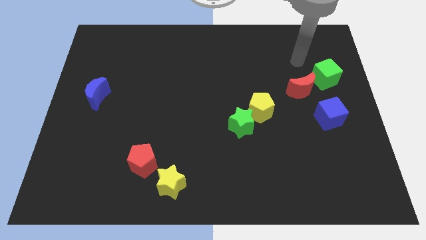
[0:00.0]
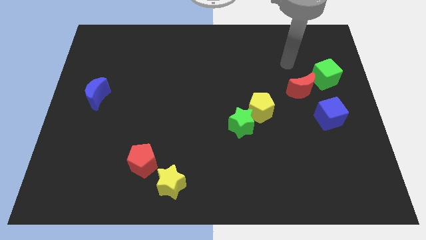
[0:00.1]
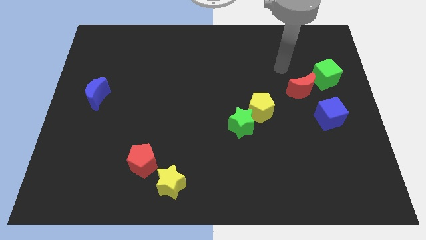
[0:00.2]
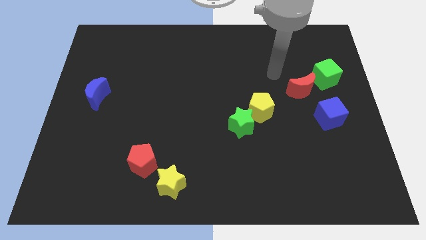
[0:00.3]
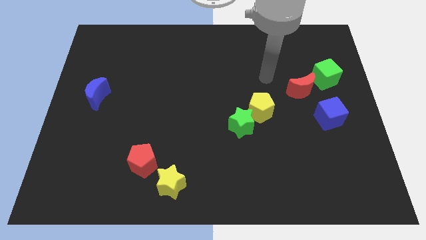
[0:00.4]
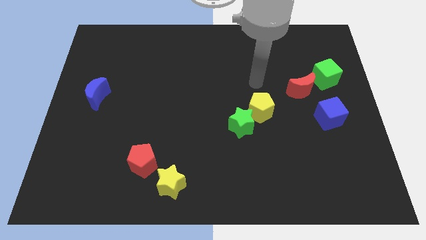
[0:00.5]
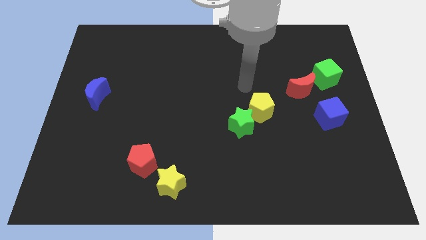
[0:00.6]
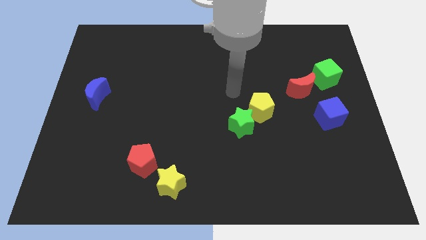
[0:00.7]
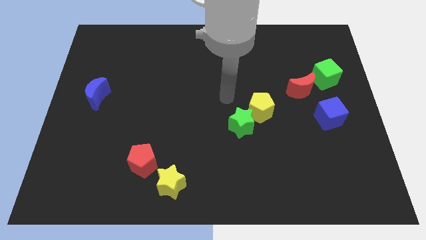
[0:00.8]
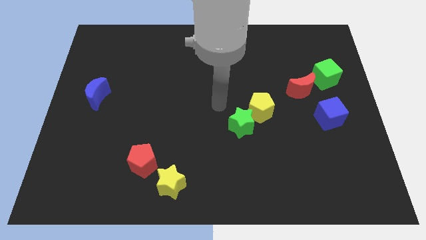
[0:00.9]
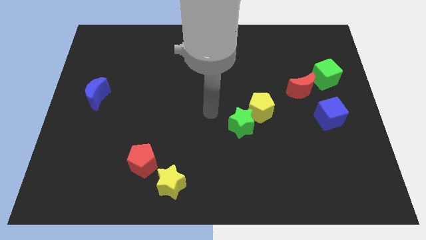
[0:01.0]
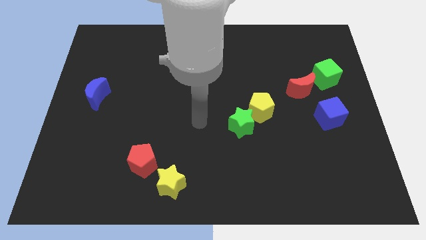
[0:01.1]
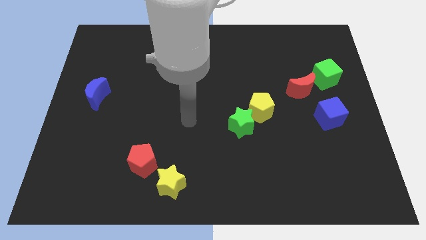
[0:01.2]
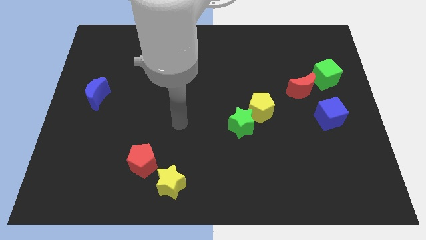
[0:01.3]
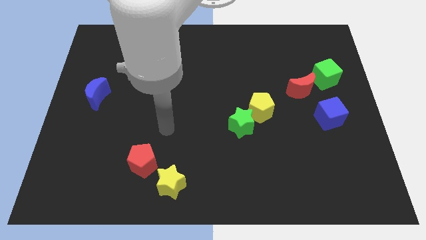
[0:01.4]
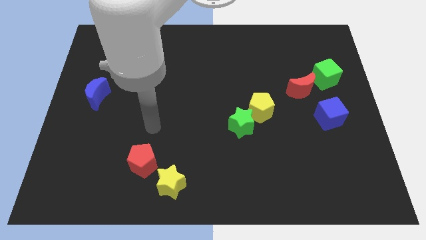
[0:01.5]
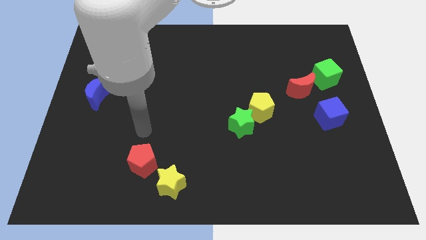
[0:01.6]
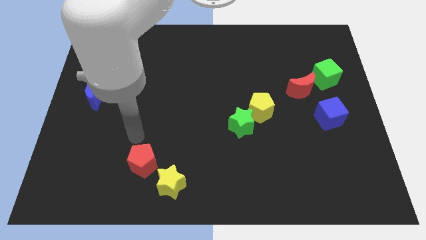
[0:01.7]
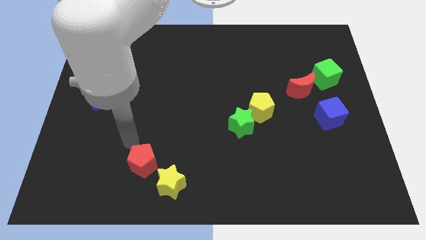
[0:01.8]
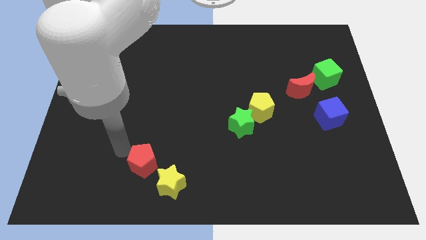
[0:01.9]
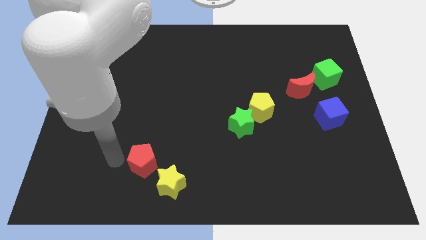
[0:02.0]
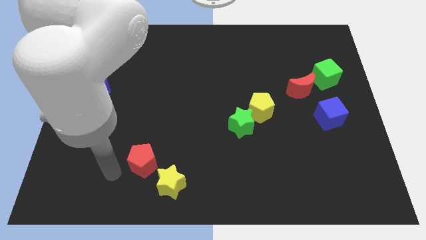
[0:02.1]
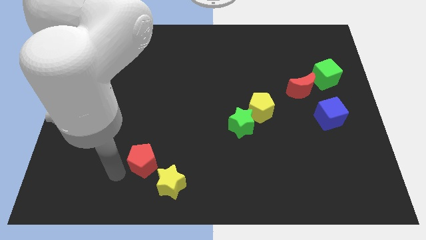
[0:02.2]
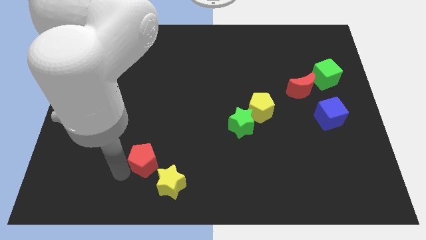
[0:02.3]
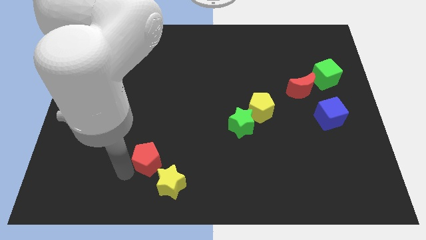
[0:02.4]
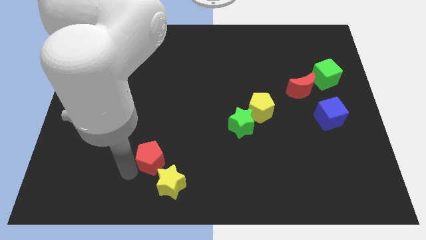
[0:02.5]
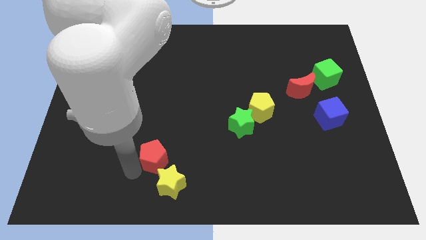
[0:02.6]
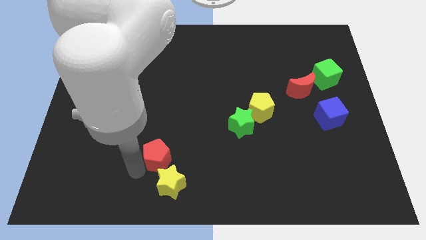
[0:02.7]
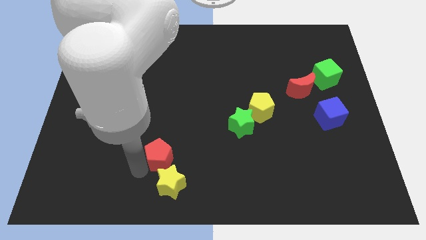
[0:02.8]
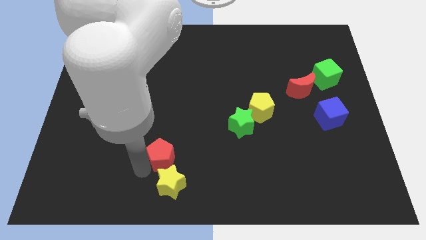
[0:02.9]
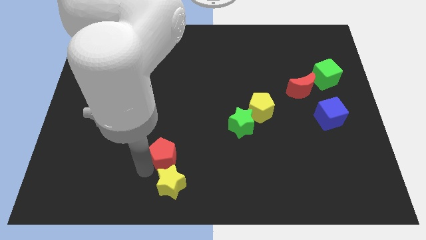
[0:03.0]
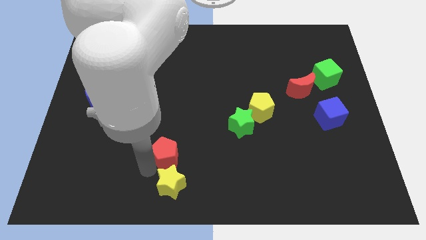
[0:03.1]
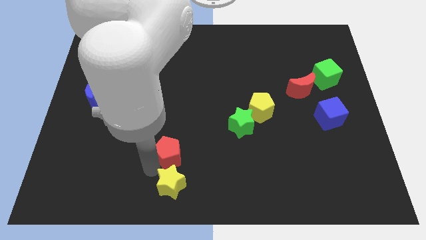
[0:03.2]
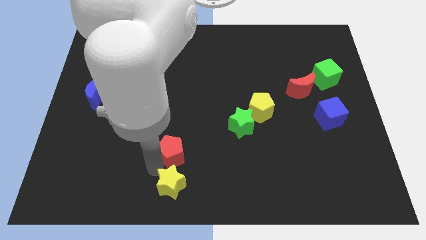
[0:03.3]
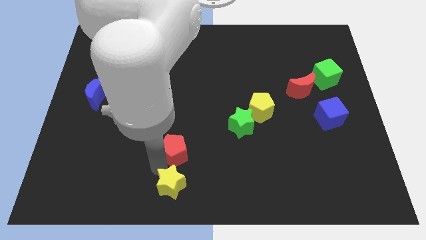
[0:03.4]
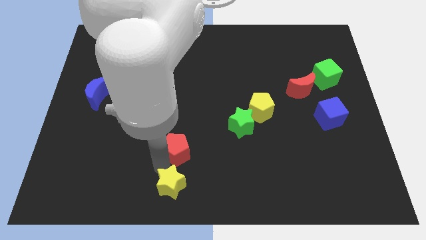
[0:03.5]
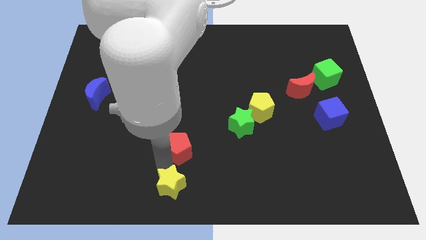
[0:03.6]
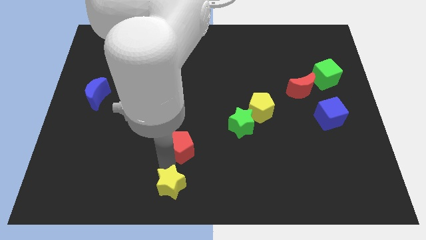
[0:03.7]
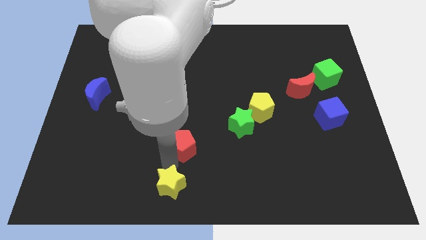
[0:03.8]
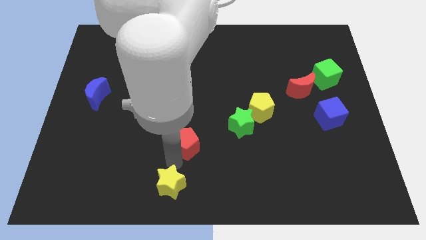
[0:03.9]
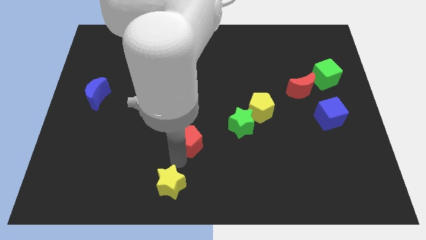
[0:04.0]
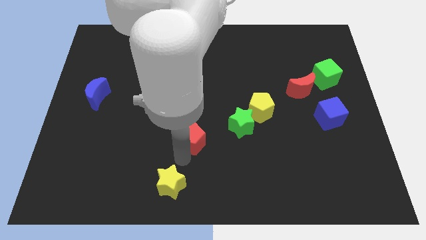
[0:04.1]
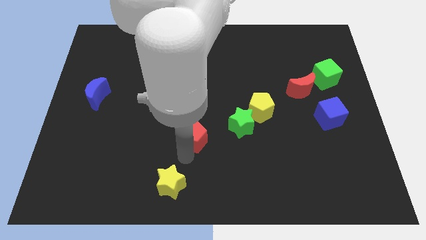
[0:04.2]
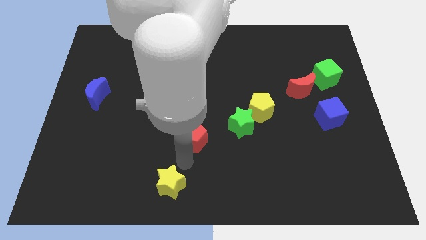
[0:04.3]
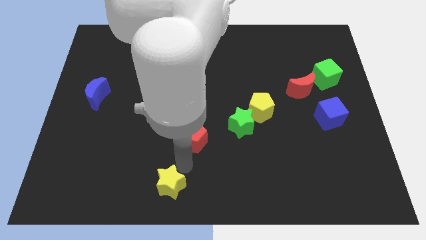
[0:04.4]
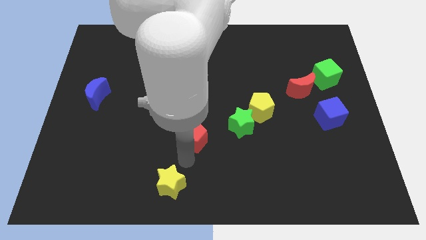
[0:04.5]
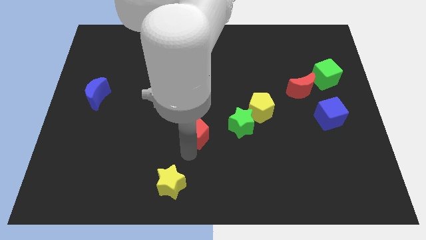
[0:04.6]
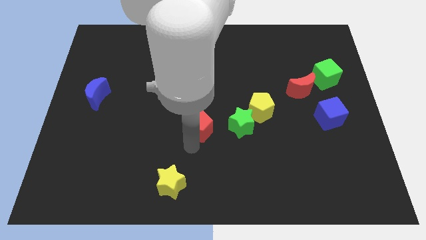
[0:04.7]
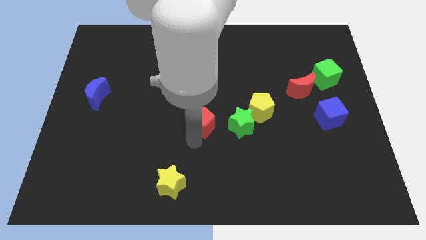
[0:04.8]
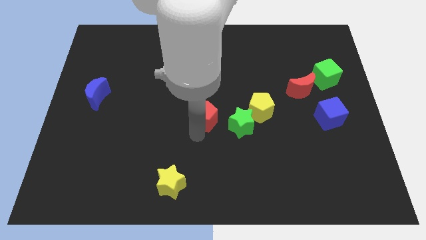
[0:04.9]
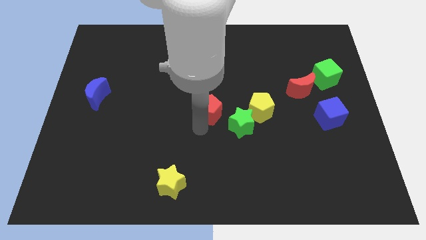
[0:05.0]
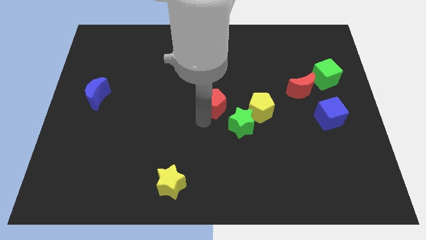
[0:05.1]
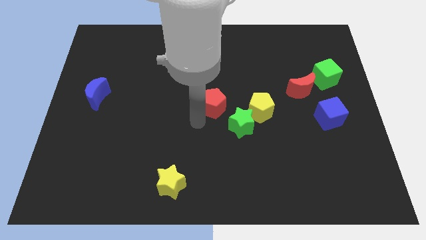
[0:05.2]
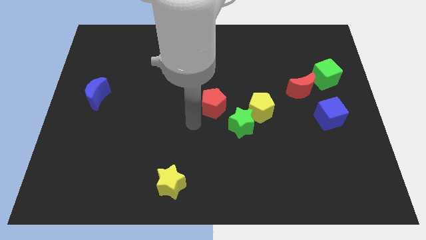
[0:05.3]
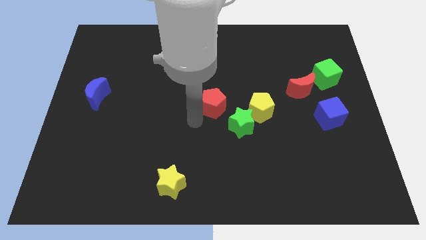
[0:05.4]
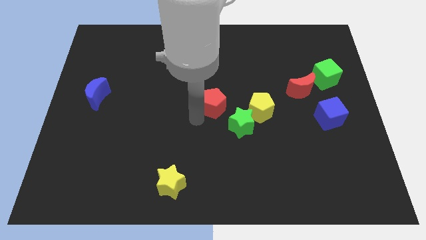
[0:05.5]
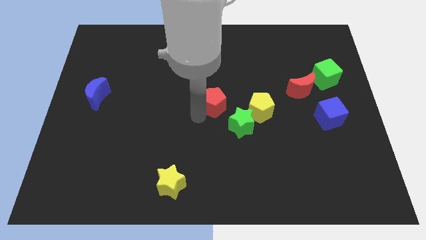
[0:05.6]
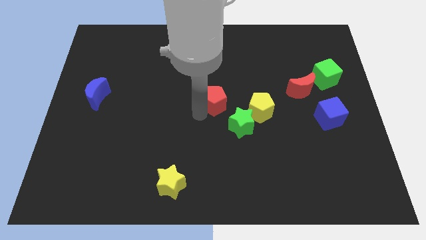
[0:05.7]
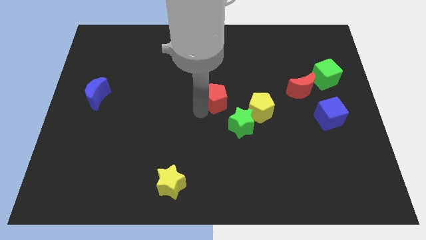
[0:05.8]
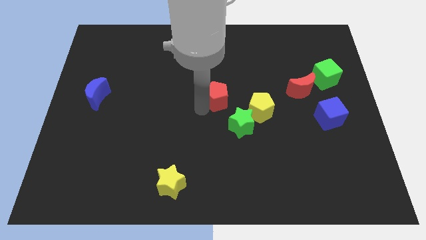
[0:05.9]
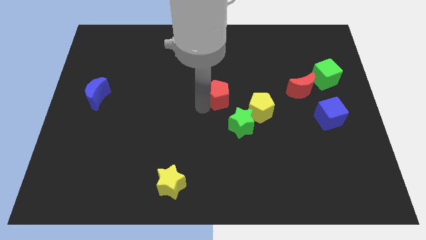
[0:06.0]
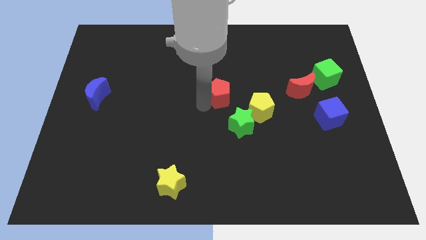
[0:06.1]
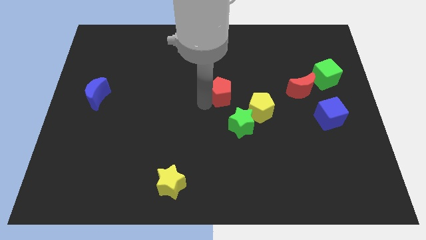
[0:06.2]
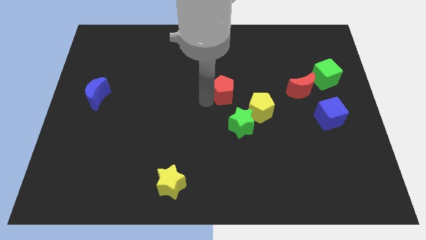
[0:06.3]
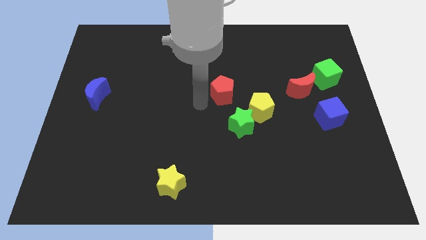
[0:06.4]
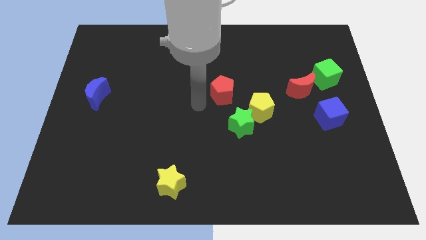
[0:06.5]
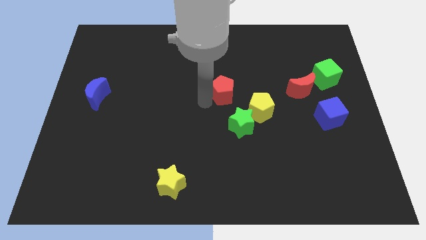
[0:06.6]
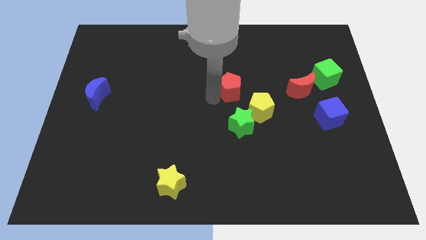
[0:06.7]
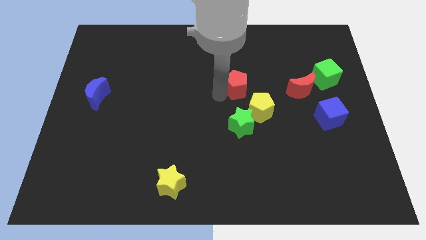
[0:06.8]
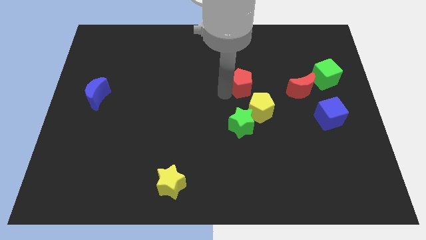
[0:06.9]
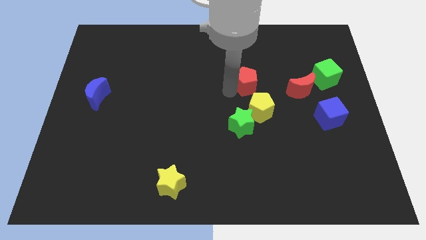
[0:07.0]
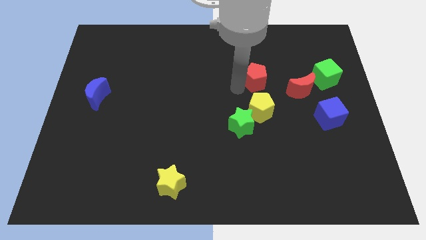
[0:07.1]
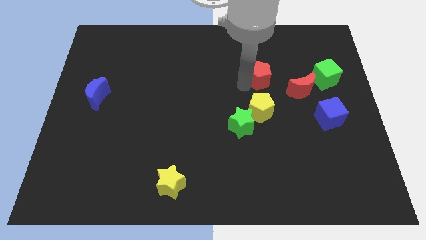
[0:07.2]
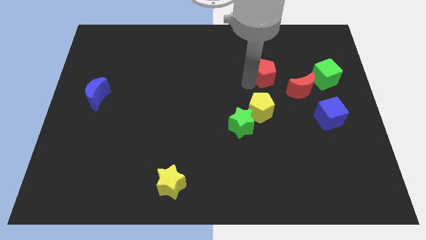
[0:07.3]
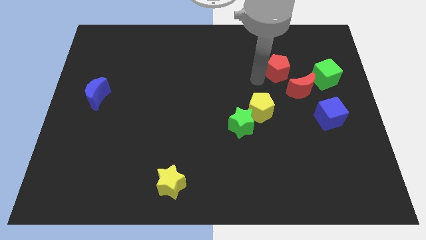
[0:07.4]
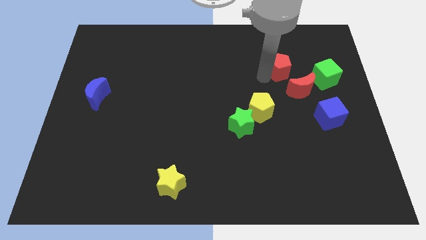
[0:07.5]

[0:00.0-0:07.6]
push the red pentagon to the top of the red moon

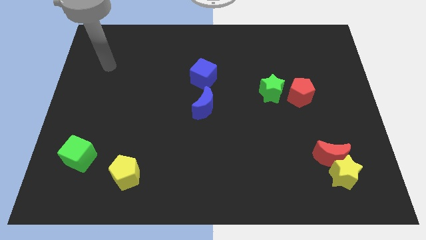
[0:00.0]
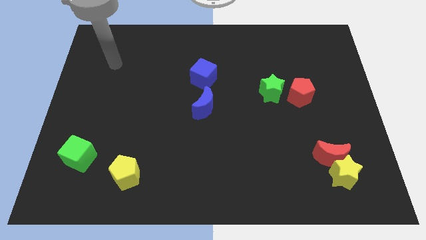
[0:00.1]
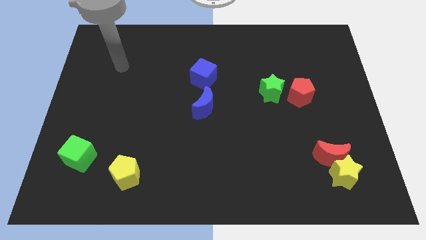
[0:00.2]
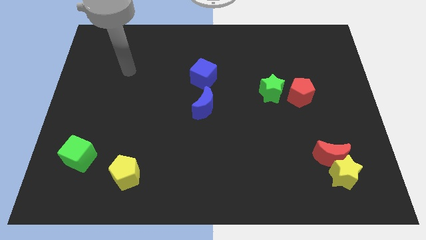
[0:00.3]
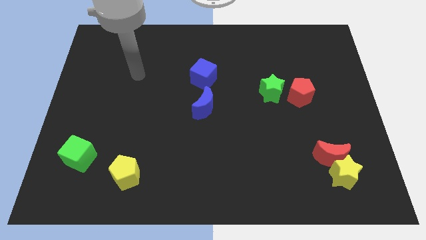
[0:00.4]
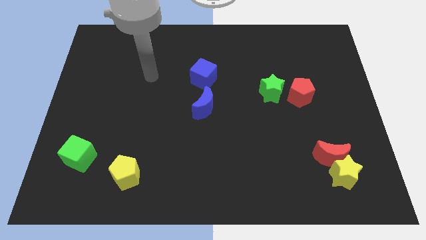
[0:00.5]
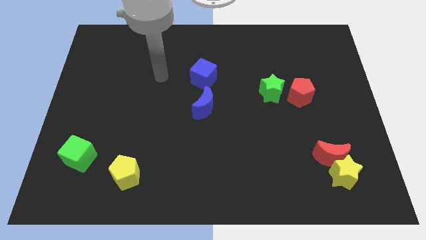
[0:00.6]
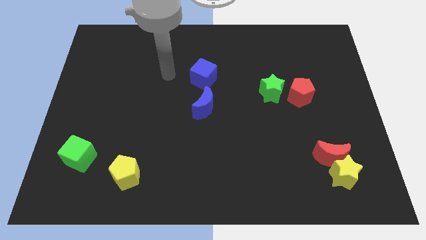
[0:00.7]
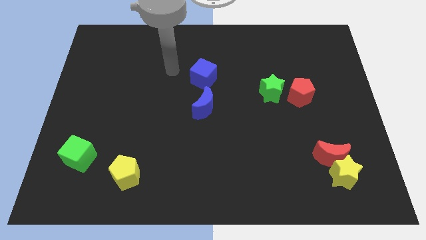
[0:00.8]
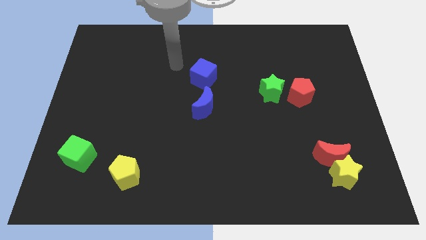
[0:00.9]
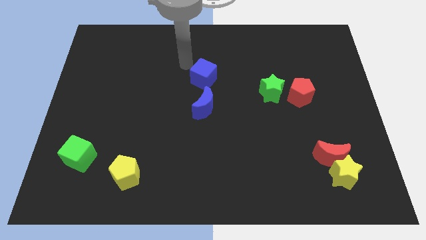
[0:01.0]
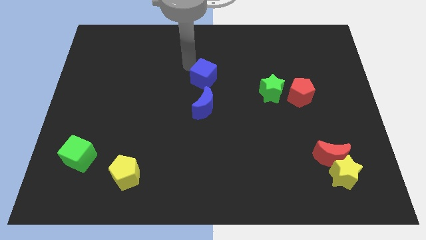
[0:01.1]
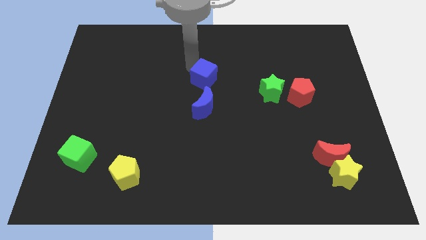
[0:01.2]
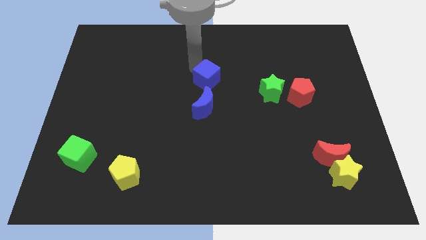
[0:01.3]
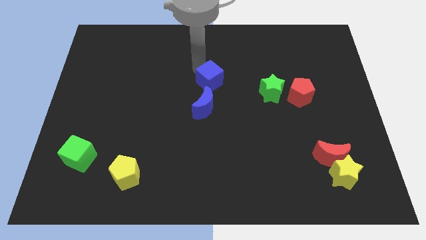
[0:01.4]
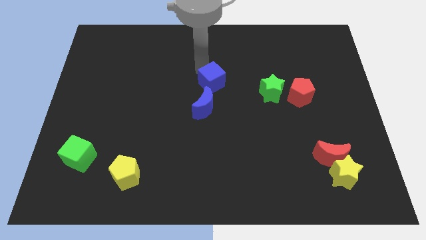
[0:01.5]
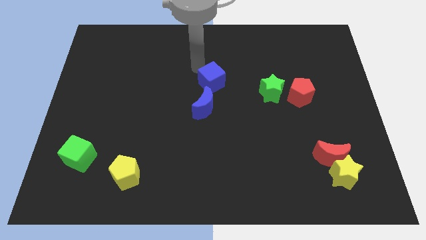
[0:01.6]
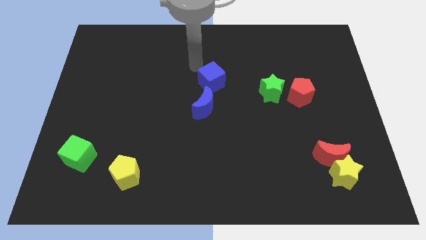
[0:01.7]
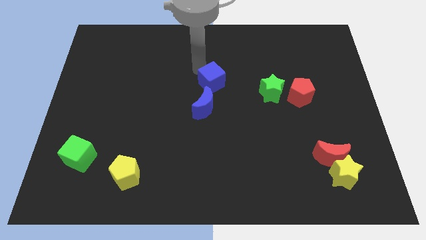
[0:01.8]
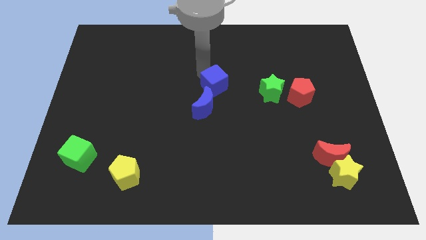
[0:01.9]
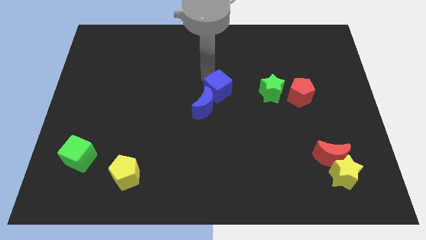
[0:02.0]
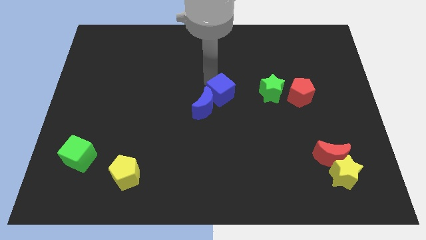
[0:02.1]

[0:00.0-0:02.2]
move the blue cube right of the blue moon
